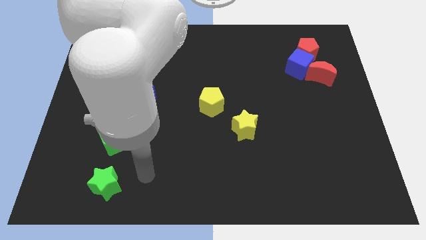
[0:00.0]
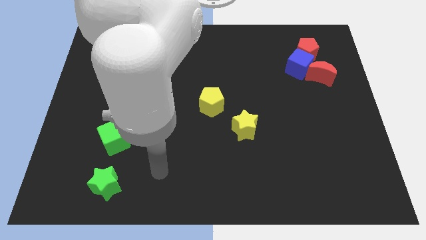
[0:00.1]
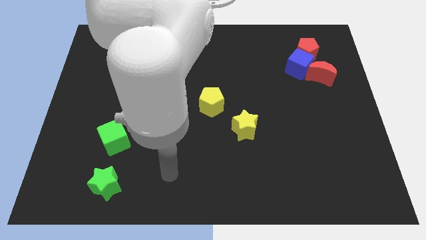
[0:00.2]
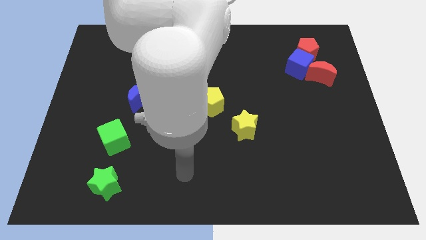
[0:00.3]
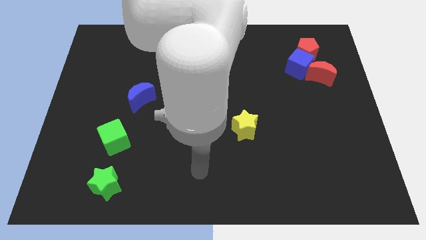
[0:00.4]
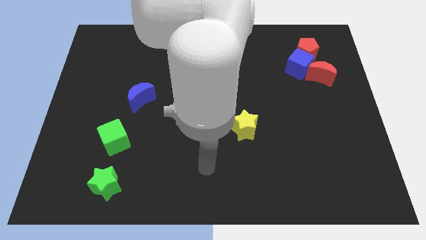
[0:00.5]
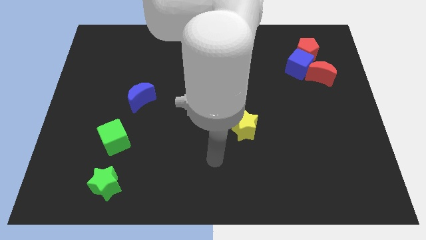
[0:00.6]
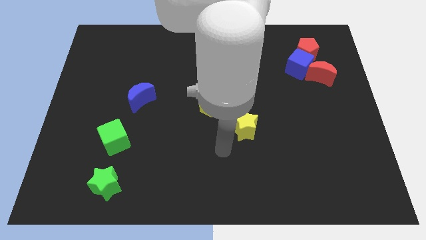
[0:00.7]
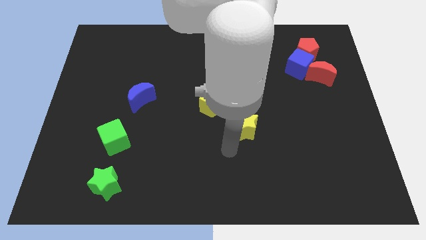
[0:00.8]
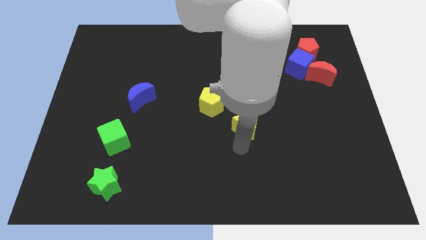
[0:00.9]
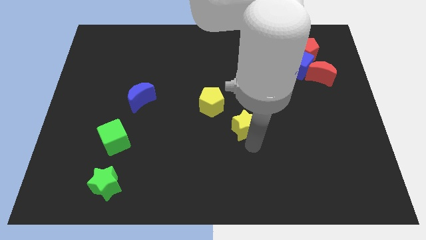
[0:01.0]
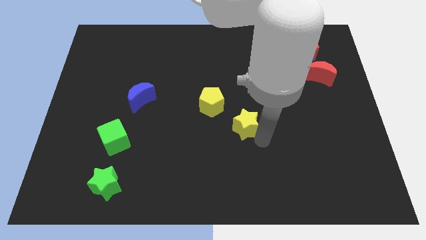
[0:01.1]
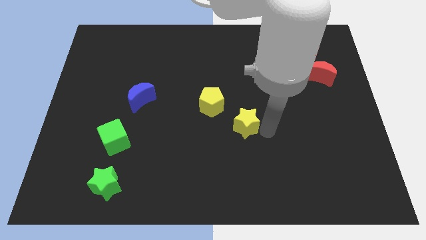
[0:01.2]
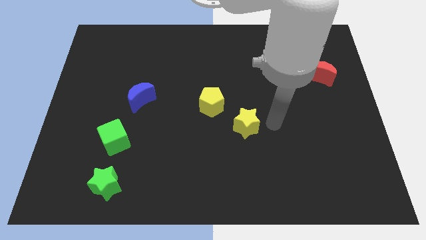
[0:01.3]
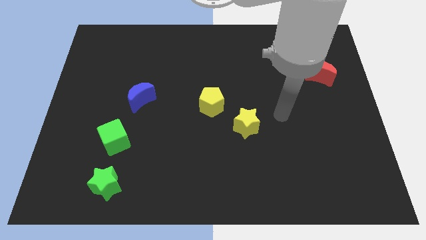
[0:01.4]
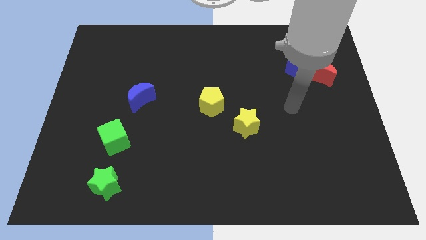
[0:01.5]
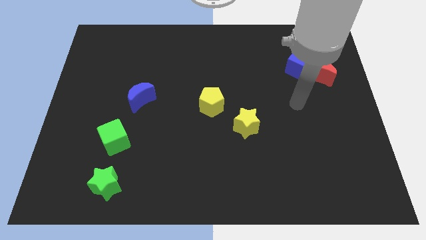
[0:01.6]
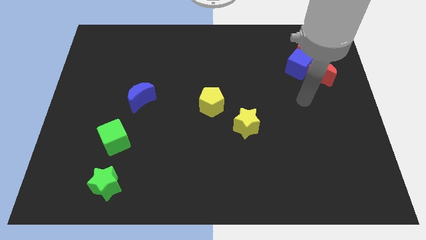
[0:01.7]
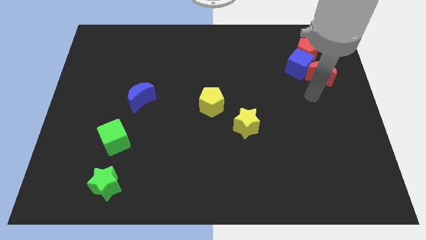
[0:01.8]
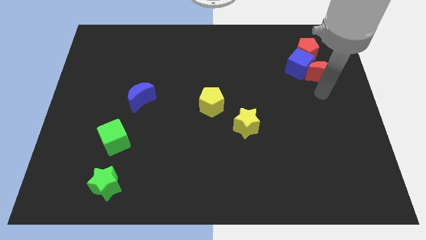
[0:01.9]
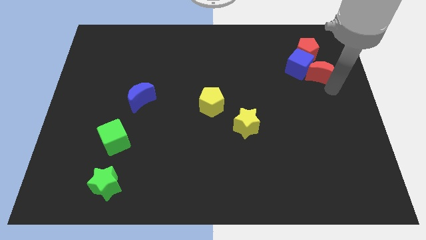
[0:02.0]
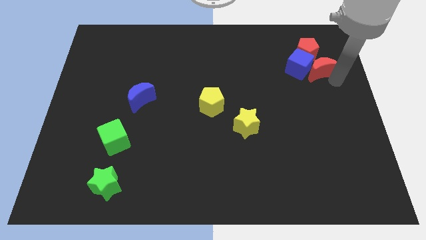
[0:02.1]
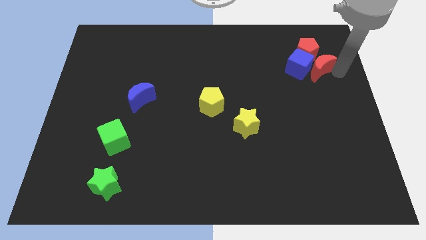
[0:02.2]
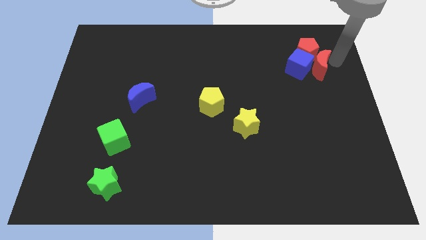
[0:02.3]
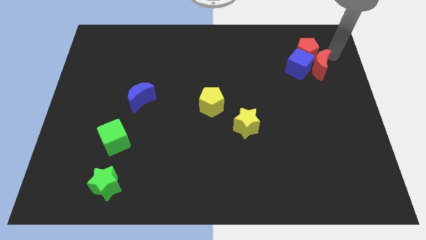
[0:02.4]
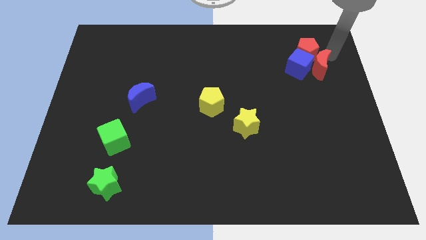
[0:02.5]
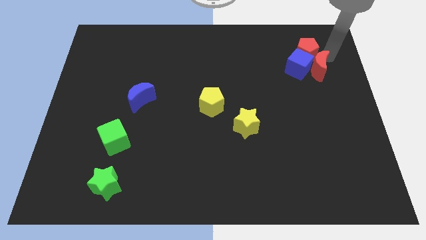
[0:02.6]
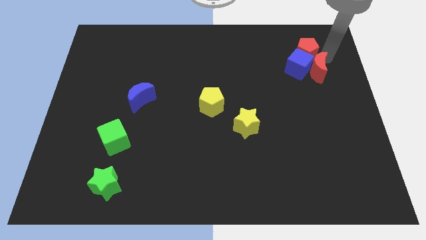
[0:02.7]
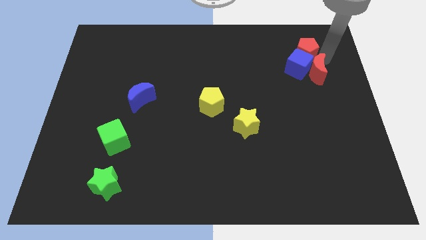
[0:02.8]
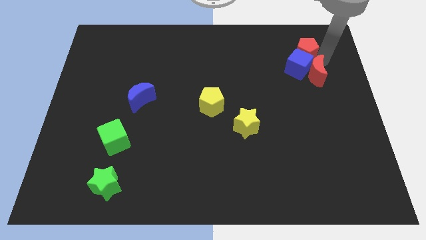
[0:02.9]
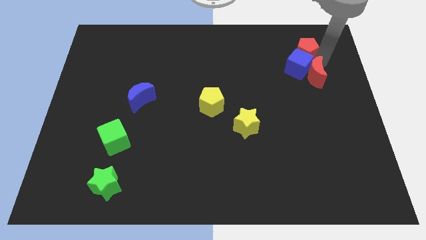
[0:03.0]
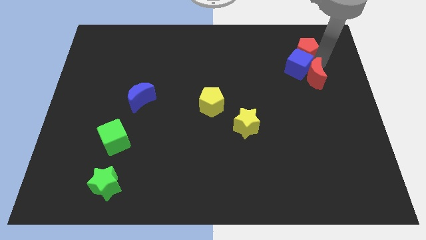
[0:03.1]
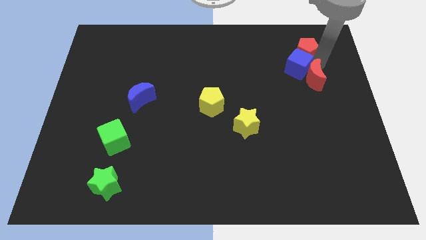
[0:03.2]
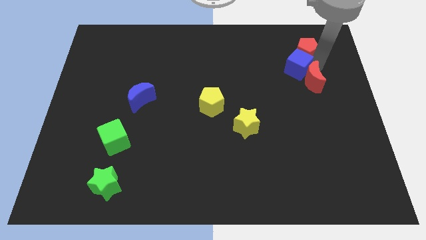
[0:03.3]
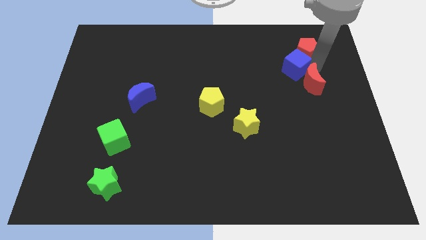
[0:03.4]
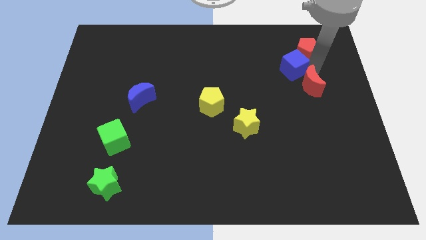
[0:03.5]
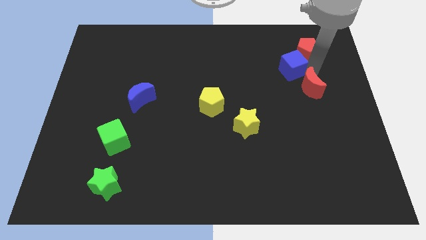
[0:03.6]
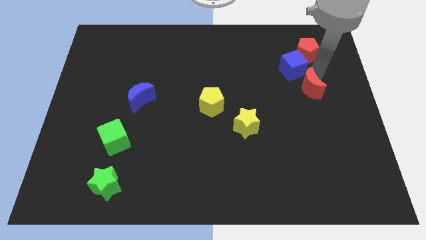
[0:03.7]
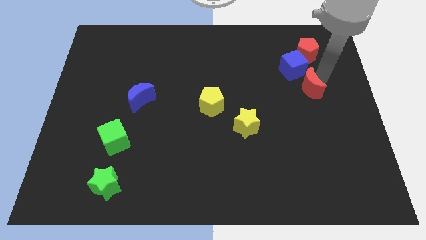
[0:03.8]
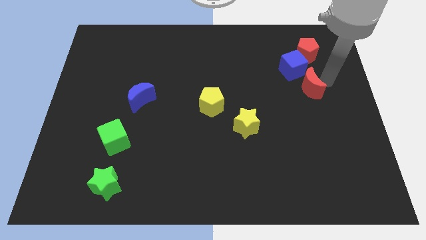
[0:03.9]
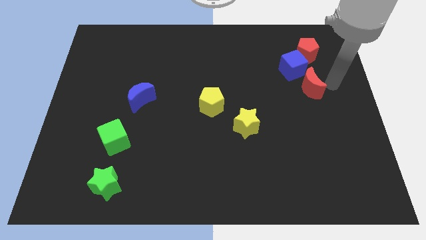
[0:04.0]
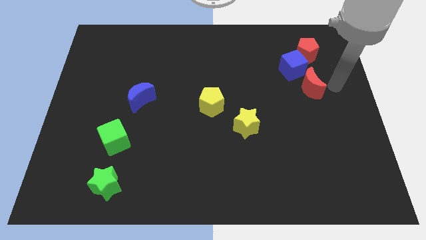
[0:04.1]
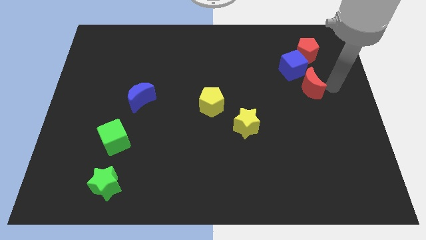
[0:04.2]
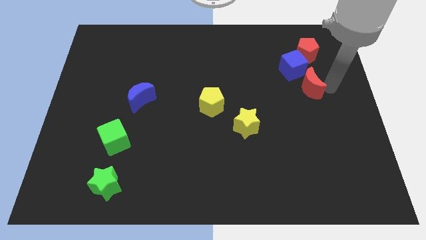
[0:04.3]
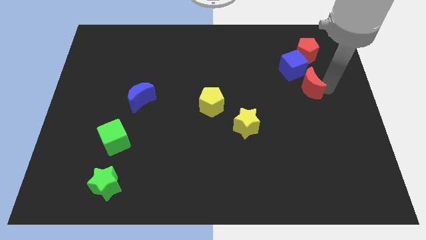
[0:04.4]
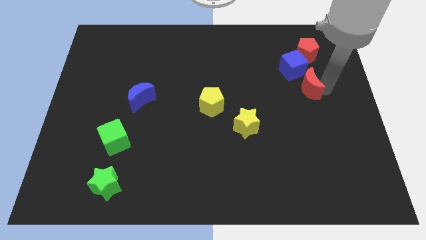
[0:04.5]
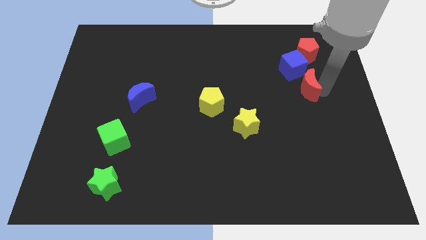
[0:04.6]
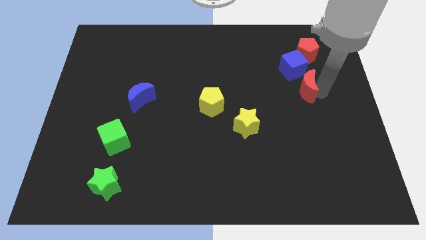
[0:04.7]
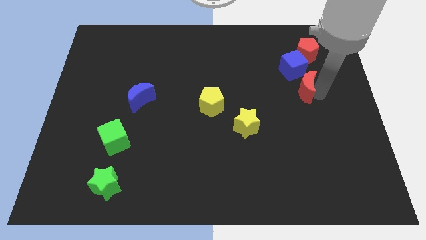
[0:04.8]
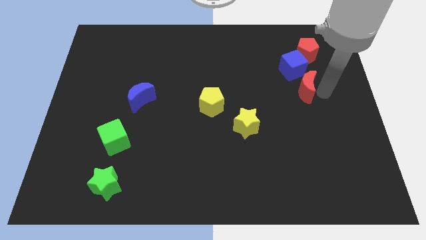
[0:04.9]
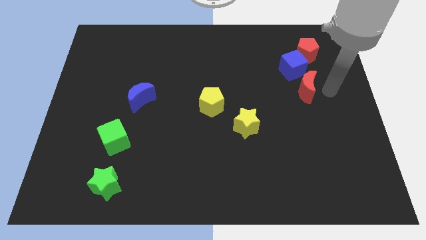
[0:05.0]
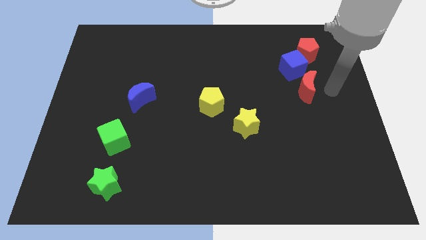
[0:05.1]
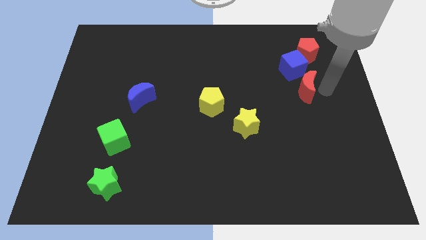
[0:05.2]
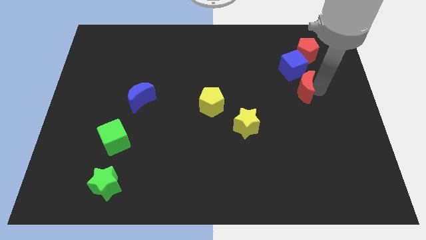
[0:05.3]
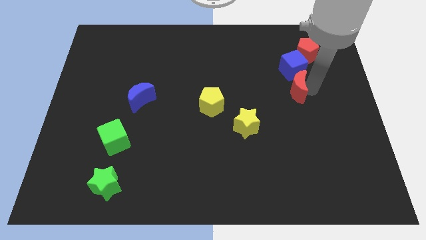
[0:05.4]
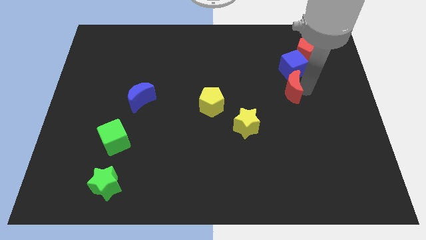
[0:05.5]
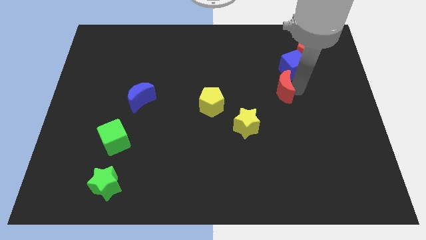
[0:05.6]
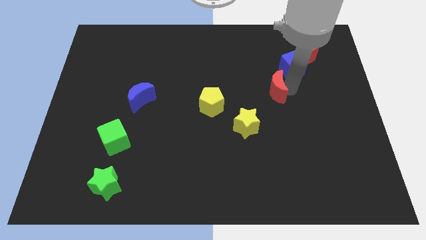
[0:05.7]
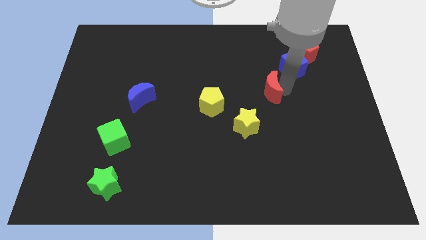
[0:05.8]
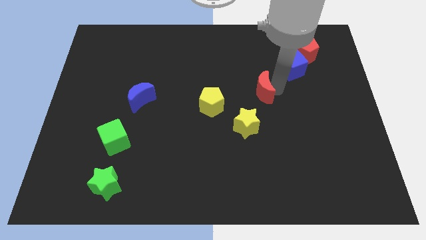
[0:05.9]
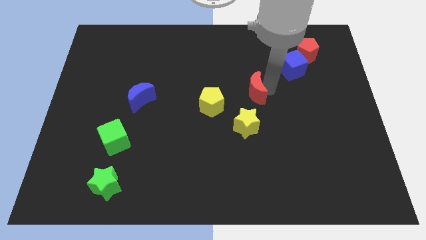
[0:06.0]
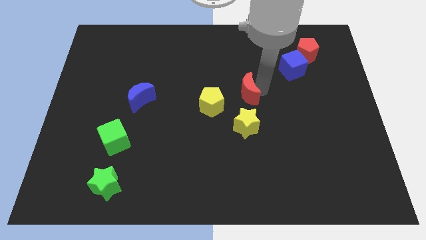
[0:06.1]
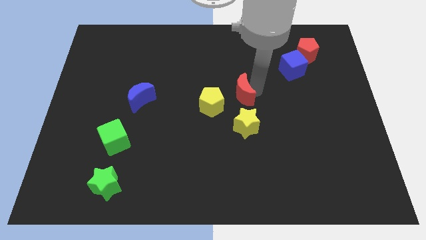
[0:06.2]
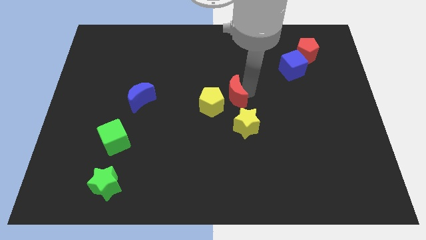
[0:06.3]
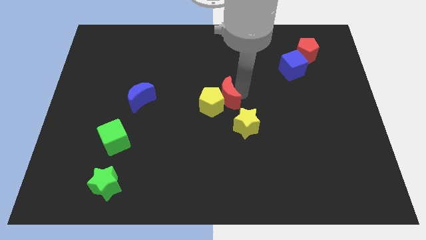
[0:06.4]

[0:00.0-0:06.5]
push the red moon to the yellow pentagon
